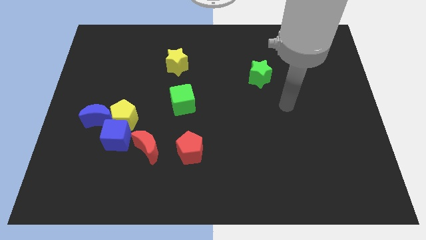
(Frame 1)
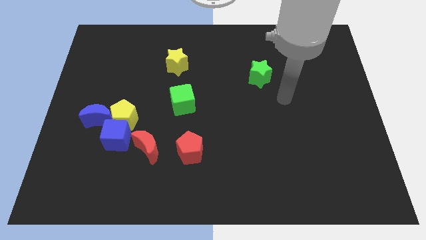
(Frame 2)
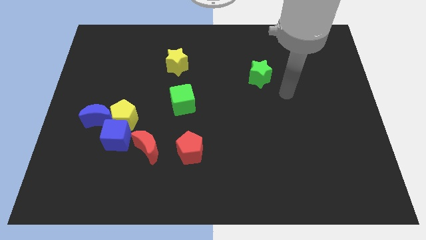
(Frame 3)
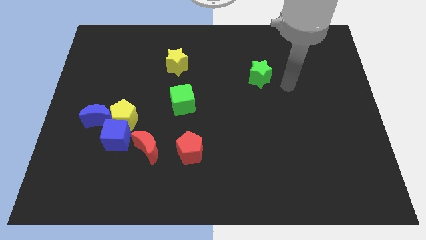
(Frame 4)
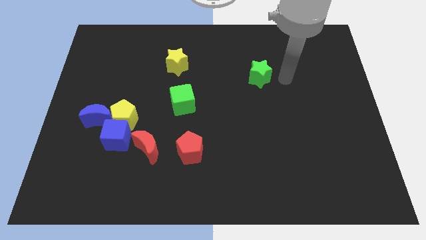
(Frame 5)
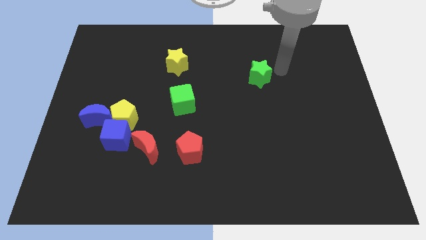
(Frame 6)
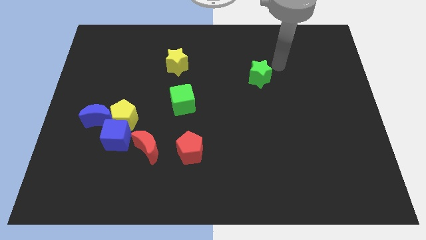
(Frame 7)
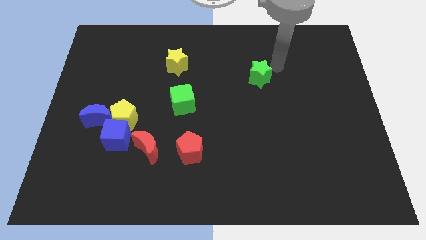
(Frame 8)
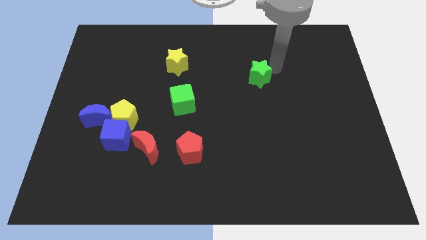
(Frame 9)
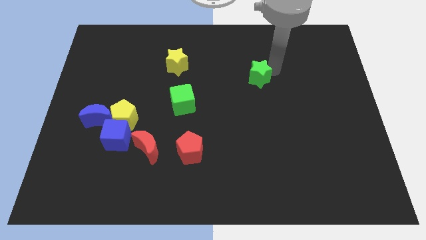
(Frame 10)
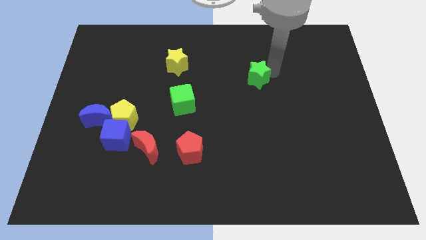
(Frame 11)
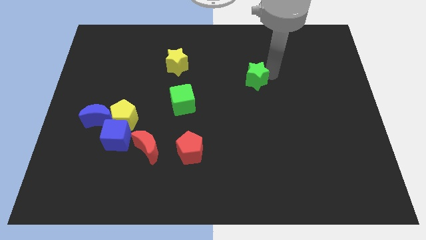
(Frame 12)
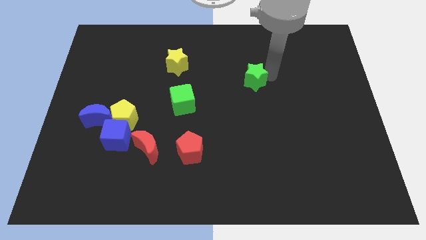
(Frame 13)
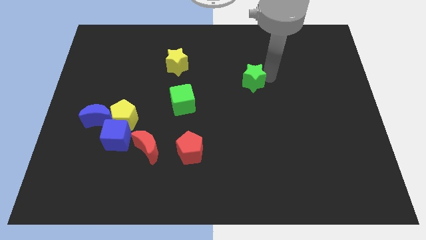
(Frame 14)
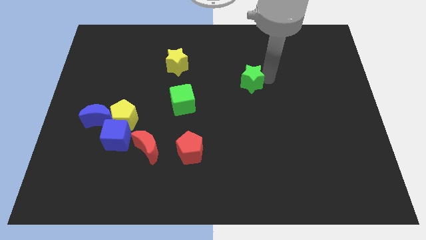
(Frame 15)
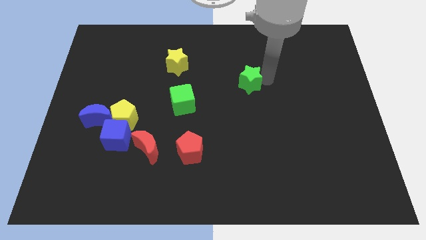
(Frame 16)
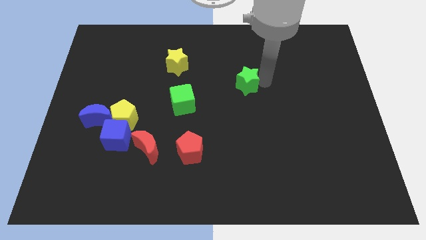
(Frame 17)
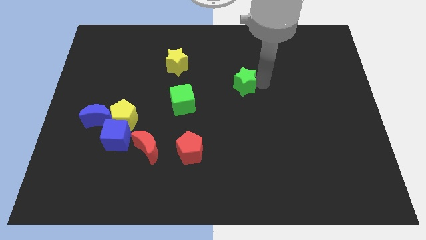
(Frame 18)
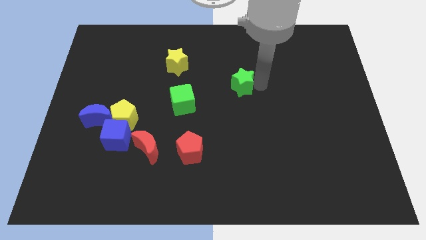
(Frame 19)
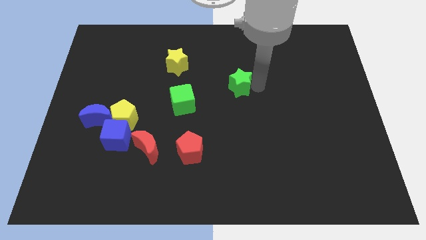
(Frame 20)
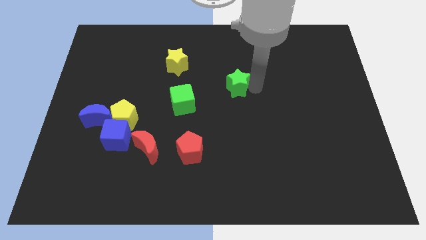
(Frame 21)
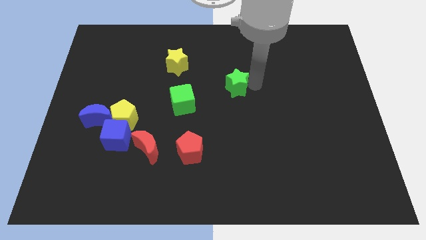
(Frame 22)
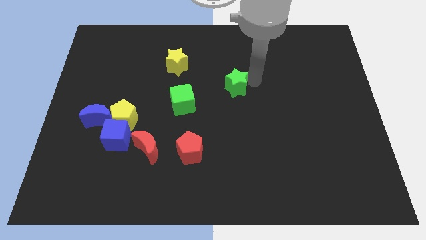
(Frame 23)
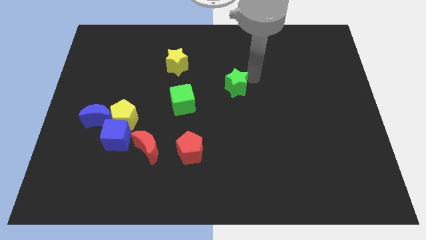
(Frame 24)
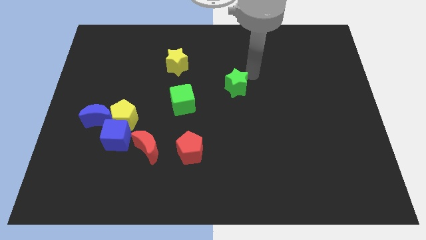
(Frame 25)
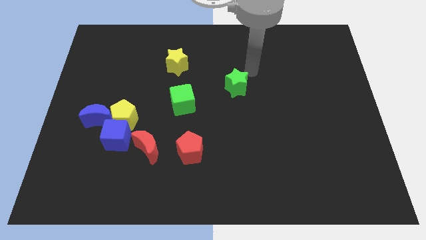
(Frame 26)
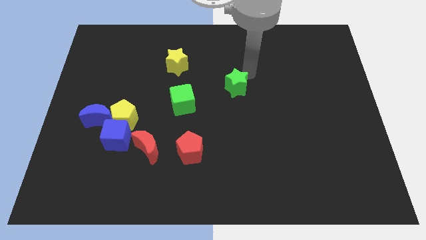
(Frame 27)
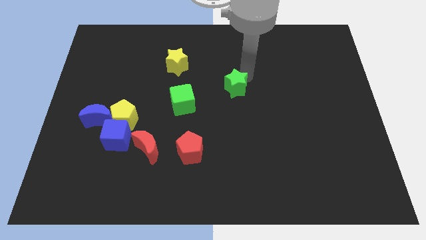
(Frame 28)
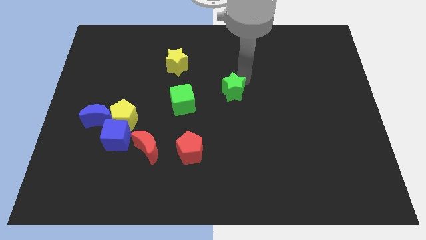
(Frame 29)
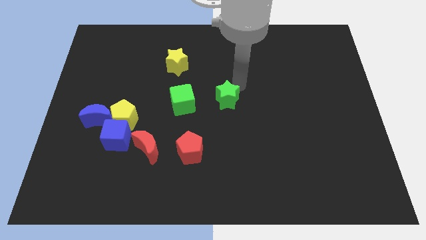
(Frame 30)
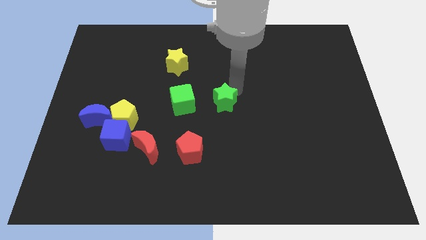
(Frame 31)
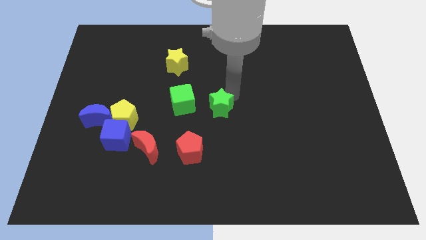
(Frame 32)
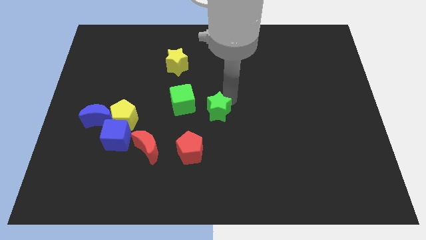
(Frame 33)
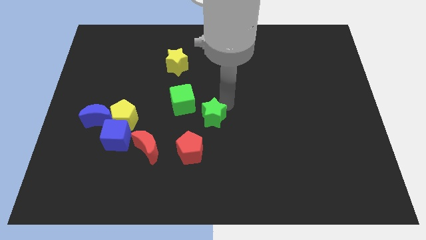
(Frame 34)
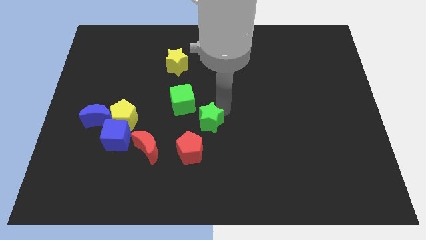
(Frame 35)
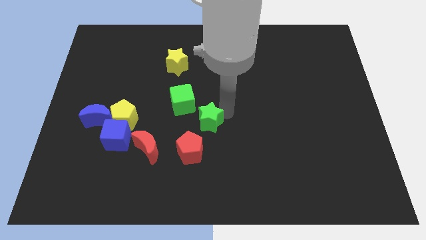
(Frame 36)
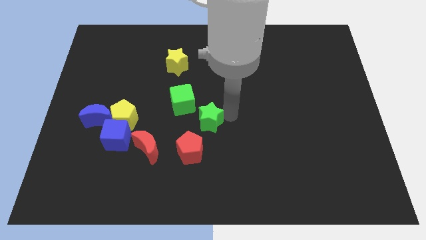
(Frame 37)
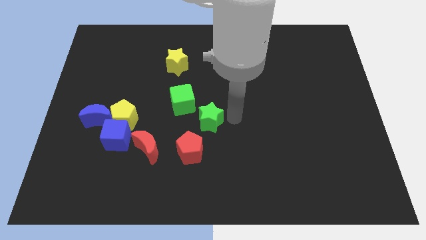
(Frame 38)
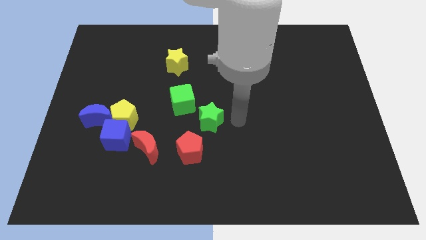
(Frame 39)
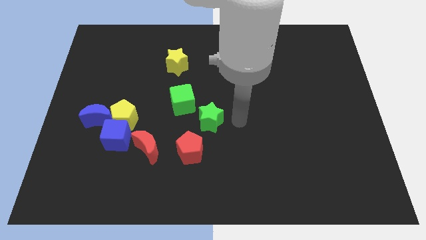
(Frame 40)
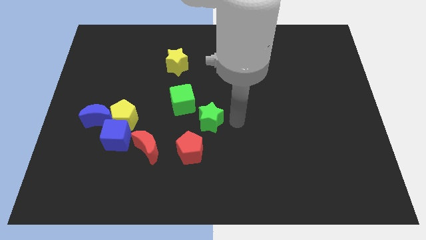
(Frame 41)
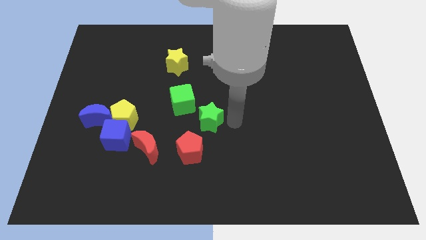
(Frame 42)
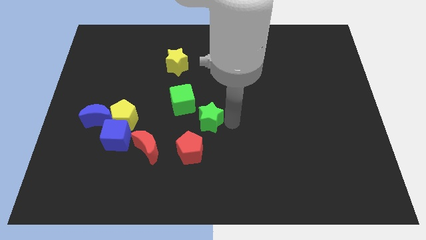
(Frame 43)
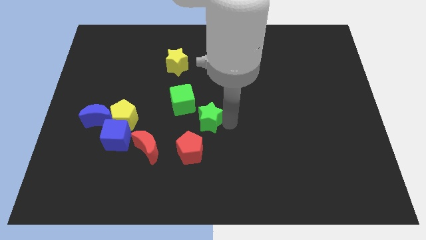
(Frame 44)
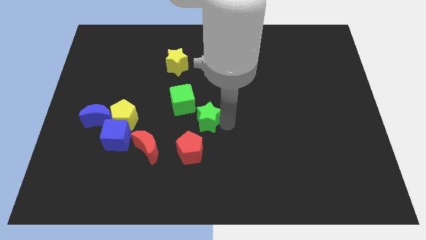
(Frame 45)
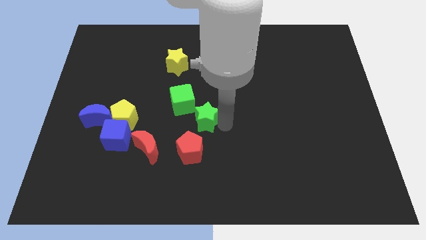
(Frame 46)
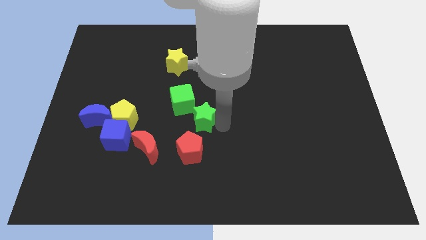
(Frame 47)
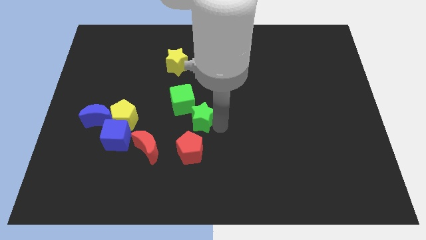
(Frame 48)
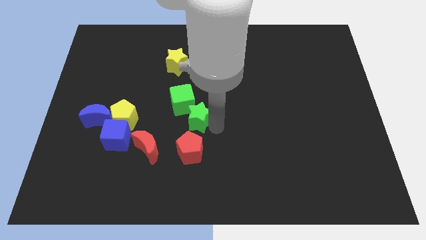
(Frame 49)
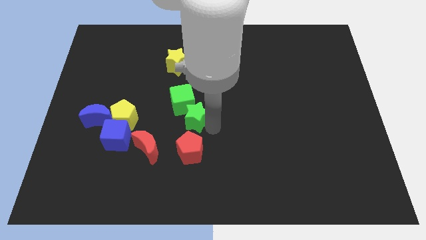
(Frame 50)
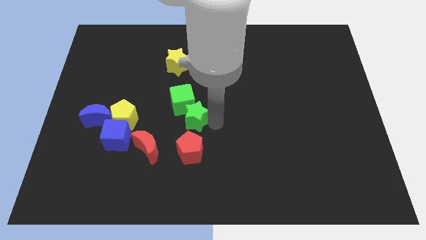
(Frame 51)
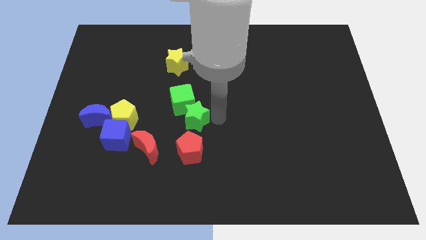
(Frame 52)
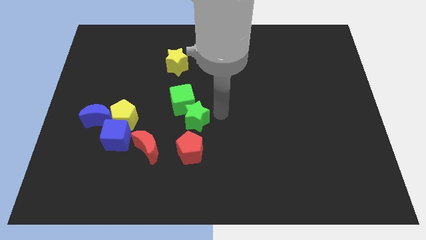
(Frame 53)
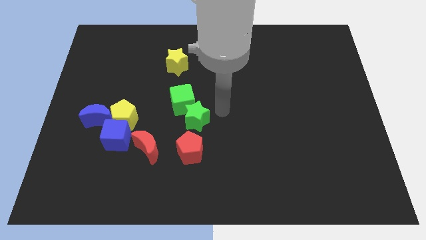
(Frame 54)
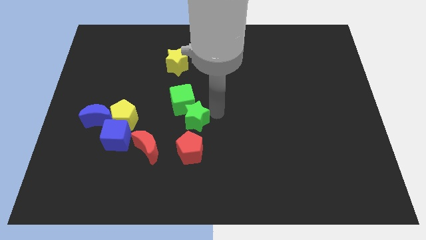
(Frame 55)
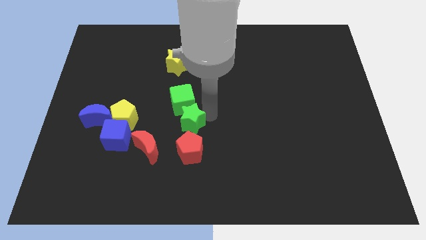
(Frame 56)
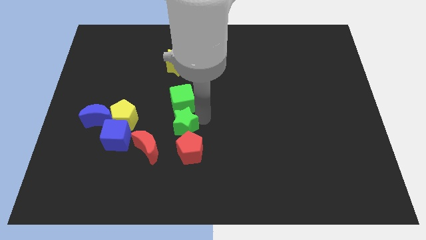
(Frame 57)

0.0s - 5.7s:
push the green star diagonally up and to the left of the red pentagon

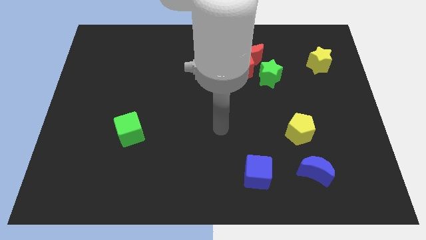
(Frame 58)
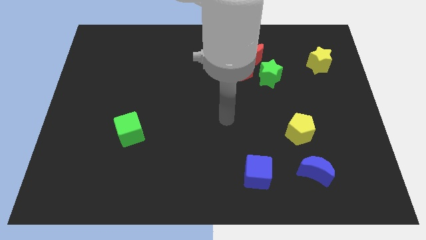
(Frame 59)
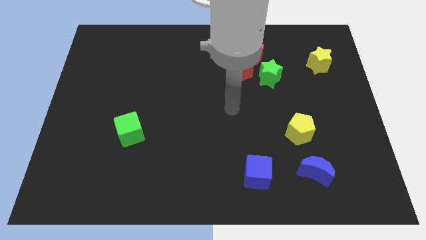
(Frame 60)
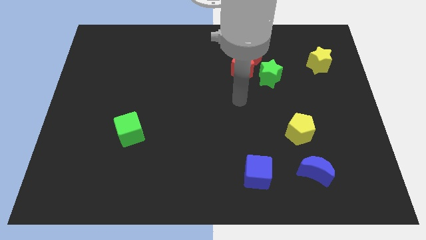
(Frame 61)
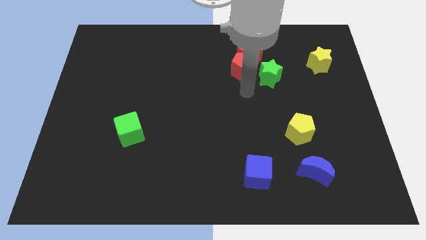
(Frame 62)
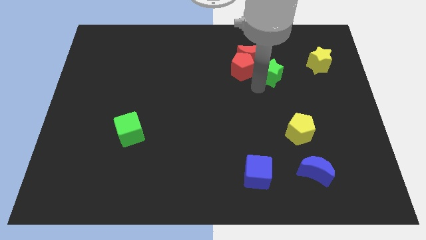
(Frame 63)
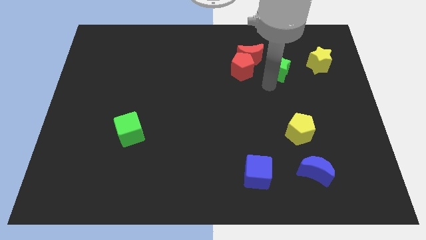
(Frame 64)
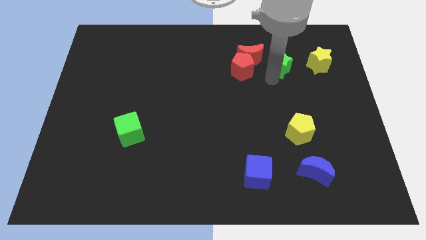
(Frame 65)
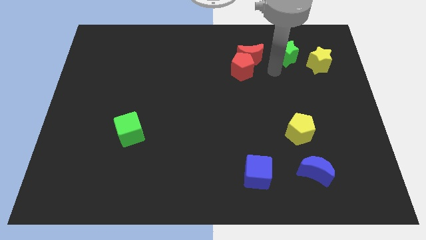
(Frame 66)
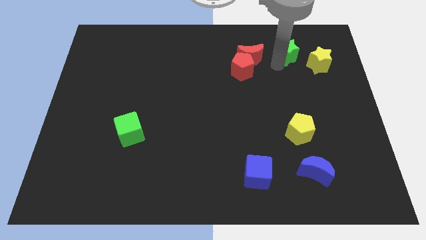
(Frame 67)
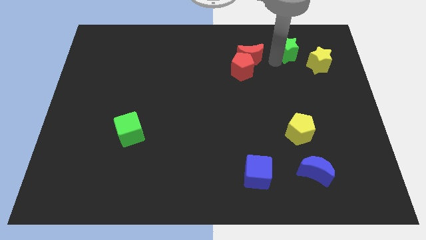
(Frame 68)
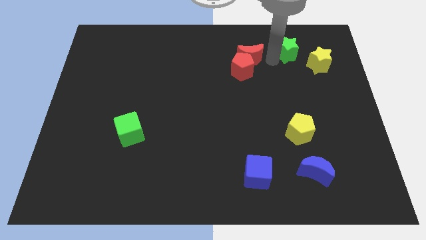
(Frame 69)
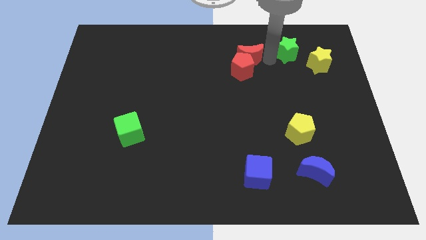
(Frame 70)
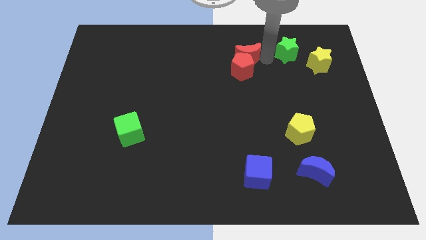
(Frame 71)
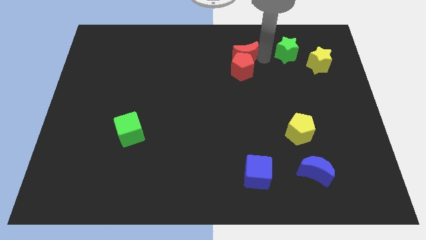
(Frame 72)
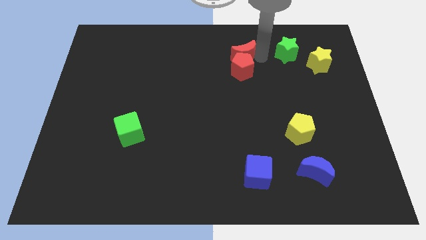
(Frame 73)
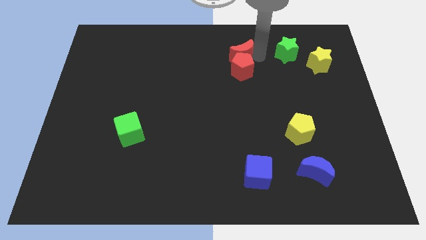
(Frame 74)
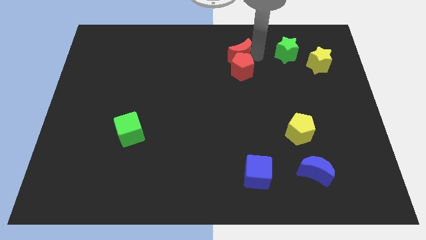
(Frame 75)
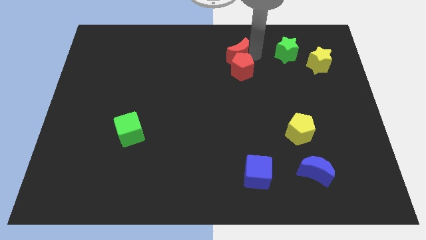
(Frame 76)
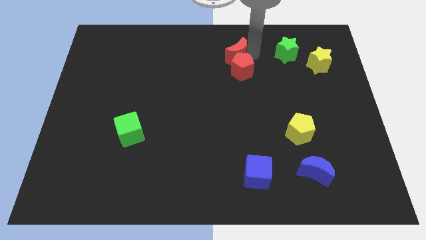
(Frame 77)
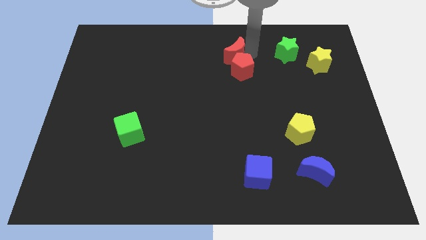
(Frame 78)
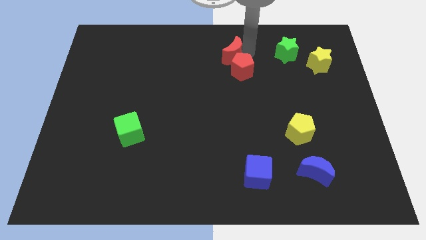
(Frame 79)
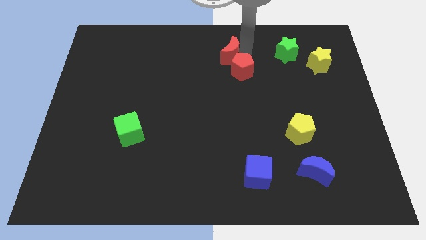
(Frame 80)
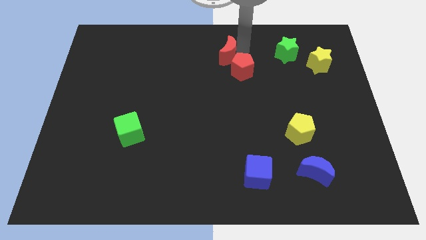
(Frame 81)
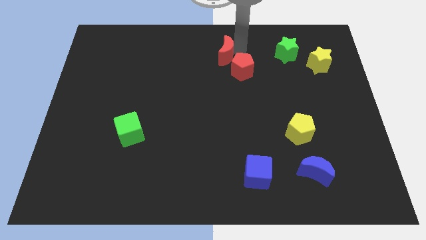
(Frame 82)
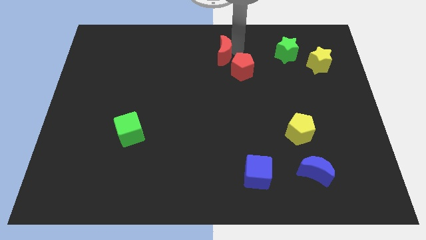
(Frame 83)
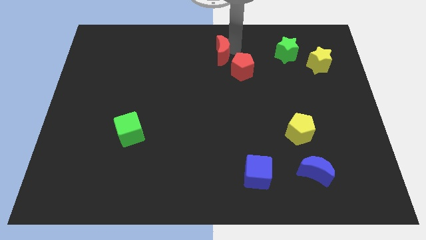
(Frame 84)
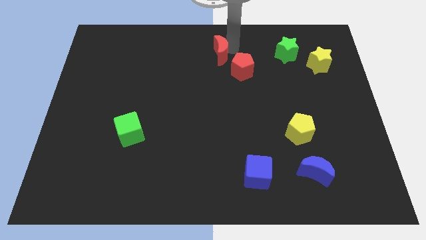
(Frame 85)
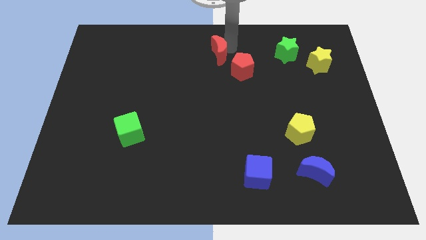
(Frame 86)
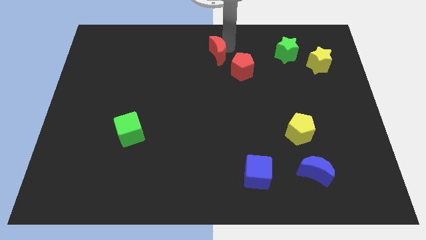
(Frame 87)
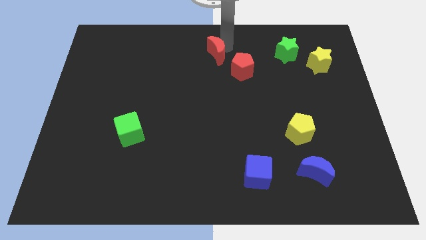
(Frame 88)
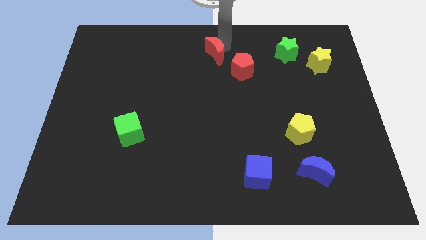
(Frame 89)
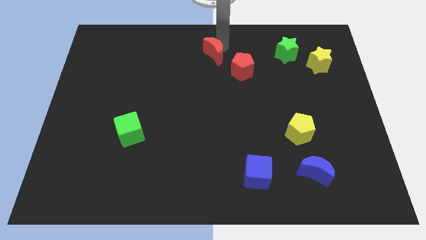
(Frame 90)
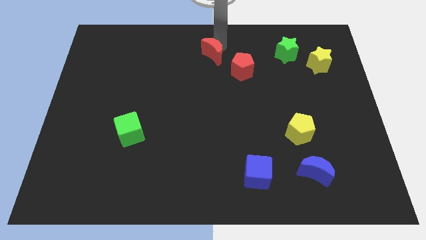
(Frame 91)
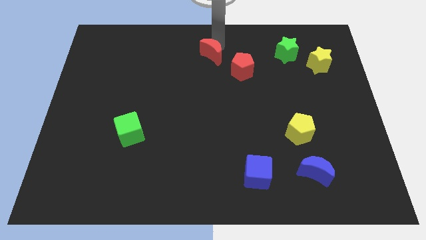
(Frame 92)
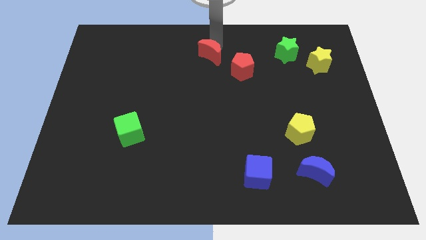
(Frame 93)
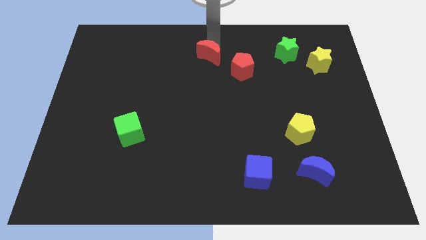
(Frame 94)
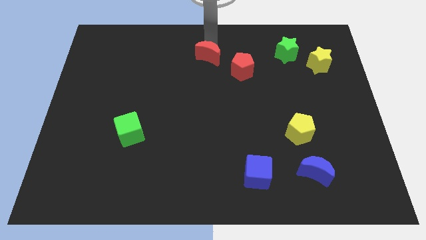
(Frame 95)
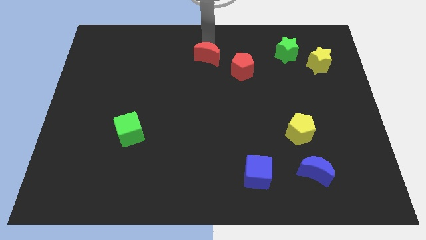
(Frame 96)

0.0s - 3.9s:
slide the red moon to the left side of the red pentagon
